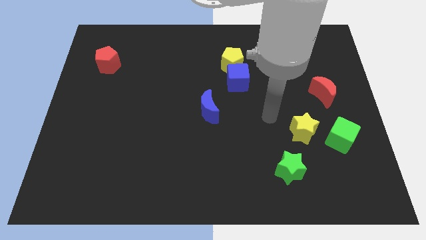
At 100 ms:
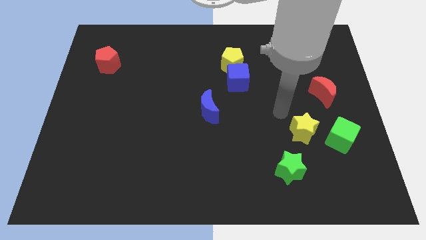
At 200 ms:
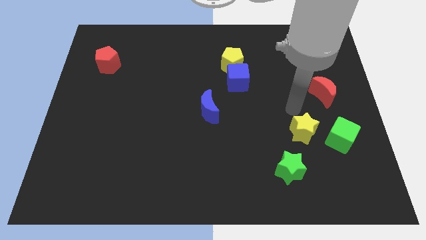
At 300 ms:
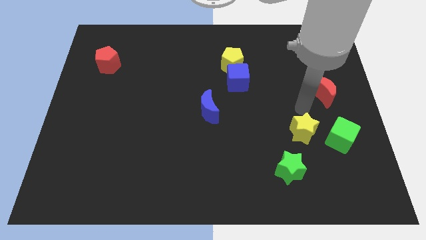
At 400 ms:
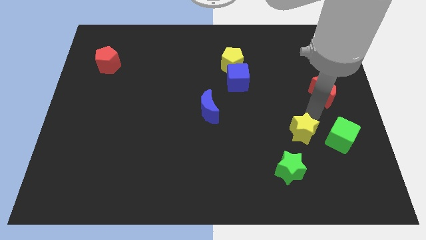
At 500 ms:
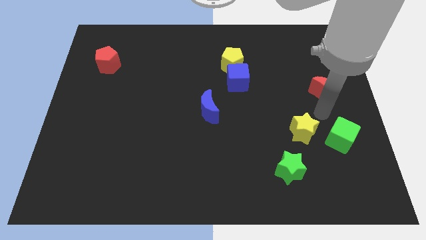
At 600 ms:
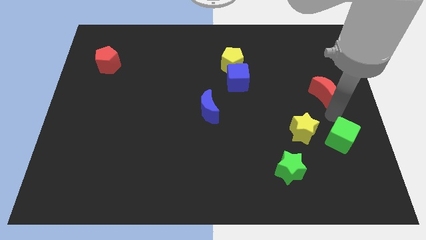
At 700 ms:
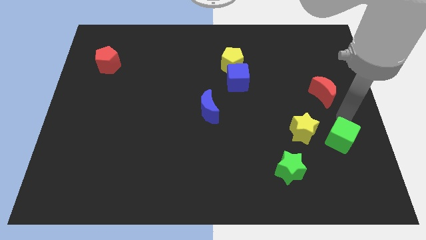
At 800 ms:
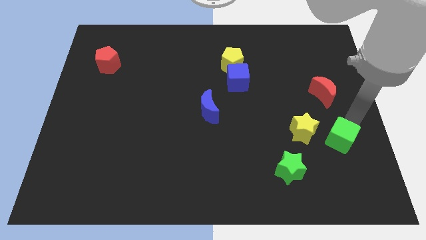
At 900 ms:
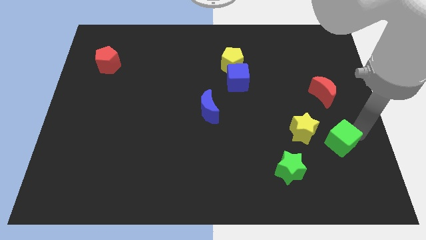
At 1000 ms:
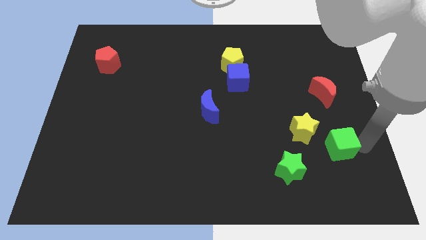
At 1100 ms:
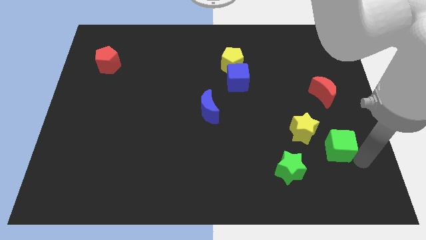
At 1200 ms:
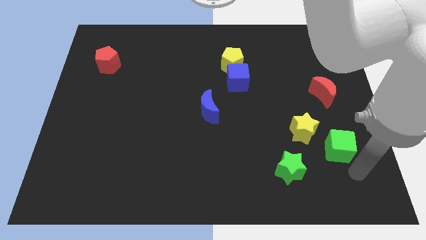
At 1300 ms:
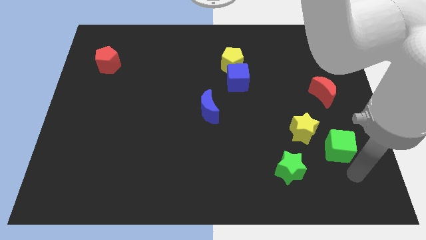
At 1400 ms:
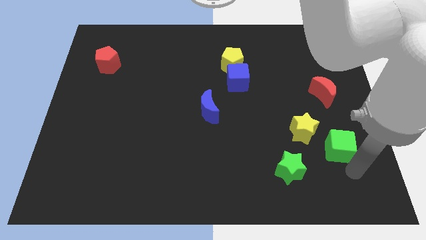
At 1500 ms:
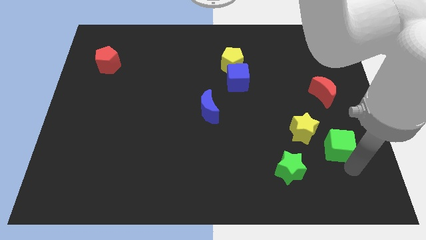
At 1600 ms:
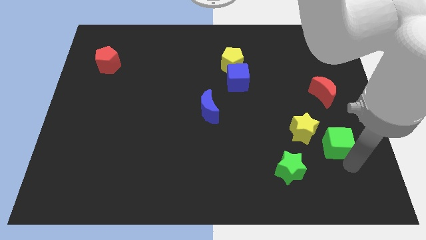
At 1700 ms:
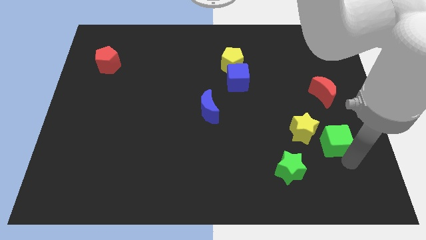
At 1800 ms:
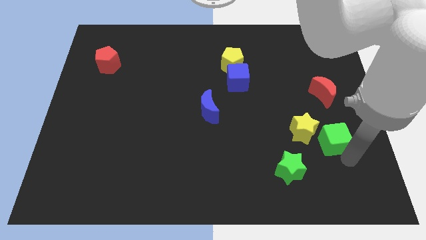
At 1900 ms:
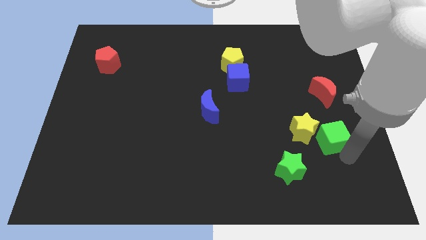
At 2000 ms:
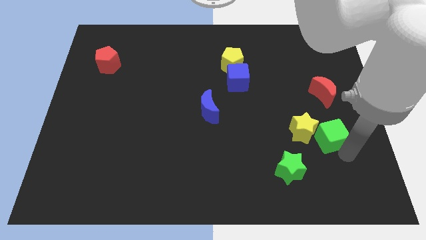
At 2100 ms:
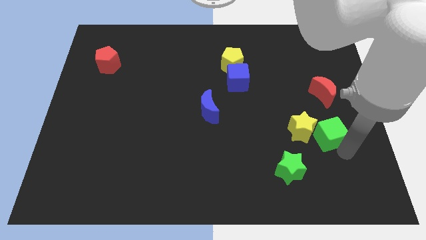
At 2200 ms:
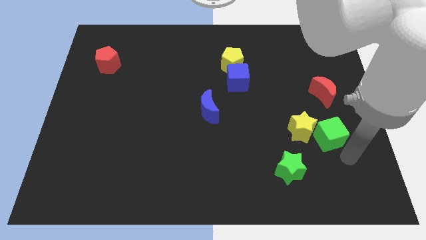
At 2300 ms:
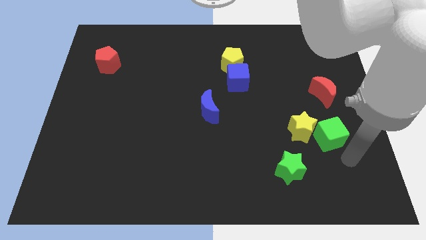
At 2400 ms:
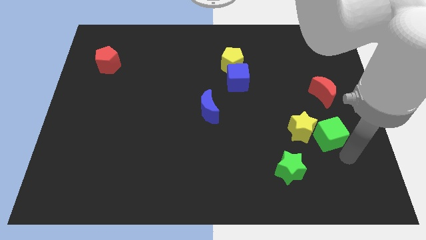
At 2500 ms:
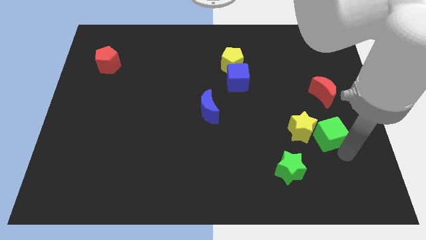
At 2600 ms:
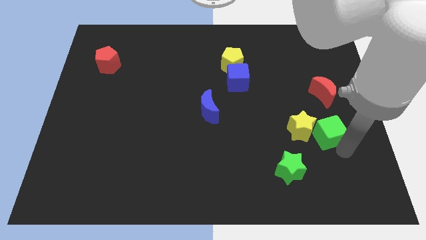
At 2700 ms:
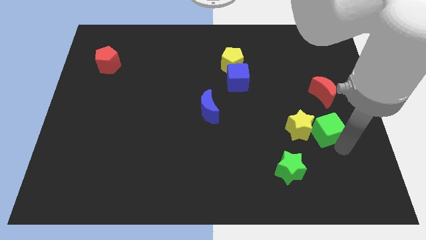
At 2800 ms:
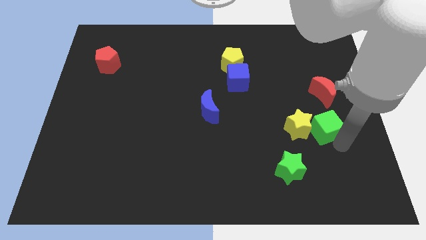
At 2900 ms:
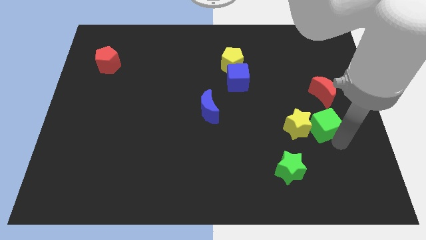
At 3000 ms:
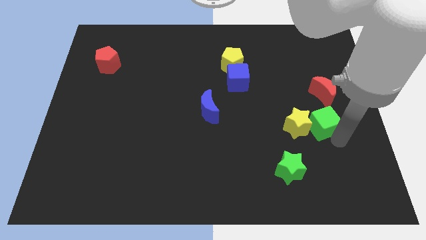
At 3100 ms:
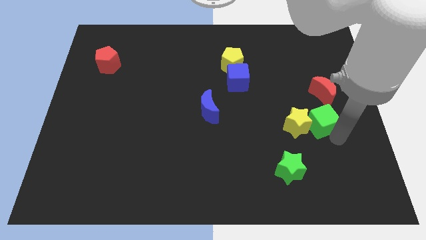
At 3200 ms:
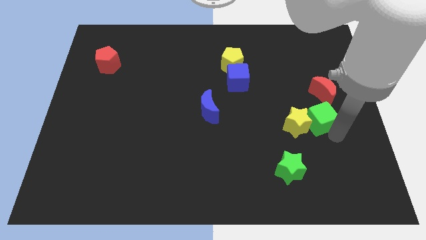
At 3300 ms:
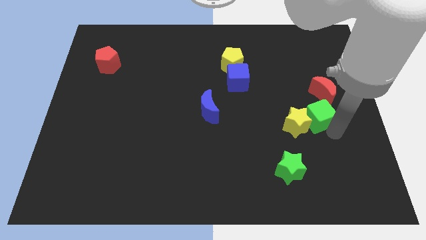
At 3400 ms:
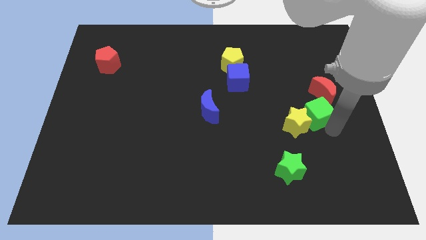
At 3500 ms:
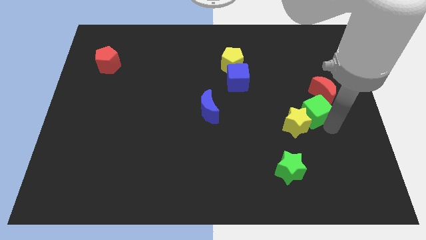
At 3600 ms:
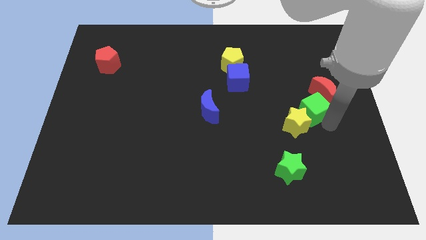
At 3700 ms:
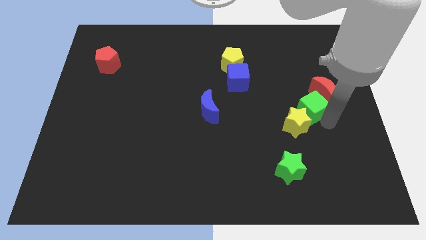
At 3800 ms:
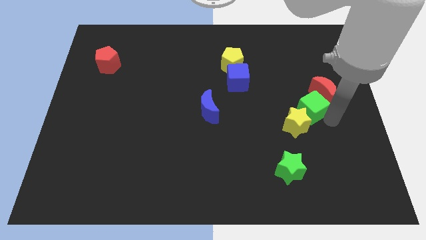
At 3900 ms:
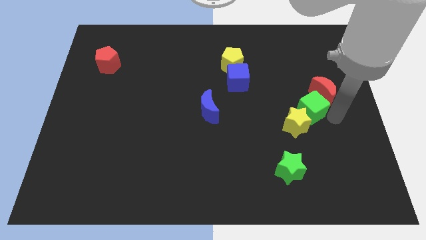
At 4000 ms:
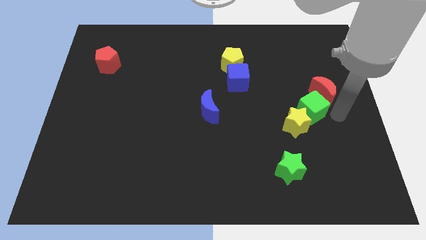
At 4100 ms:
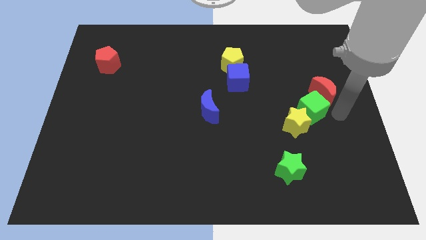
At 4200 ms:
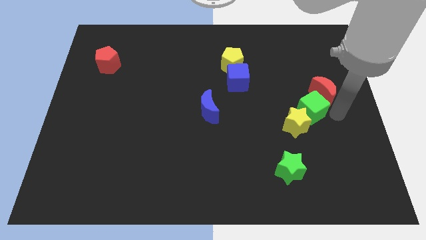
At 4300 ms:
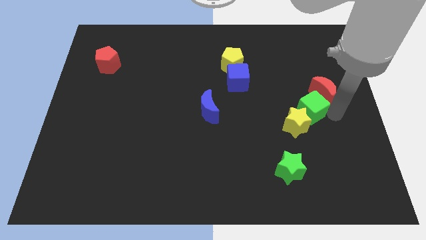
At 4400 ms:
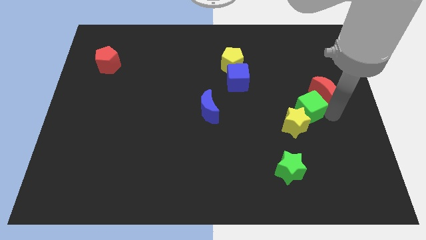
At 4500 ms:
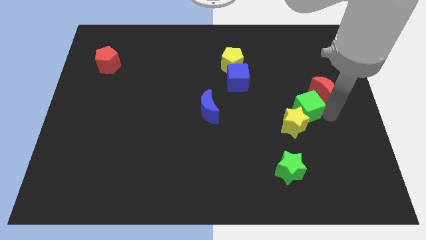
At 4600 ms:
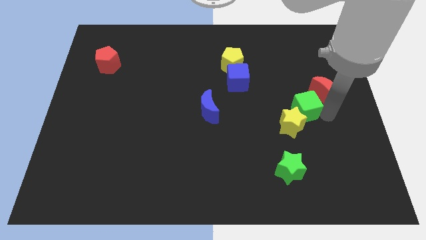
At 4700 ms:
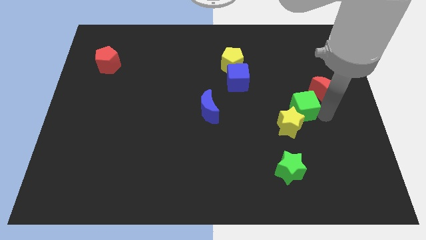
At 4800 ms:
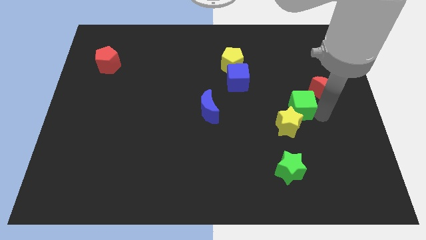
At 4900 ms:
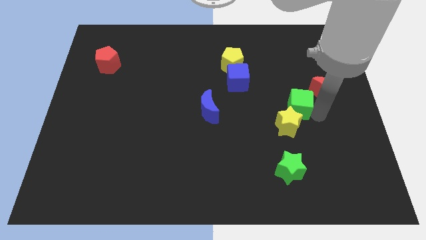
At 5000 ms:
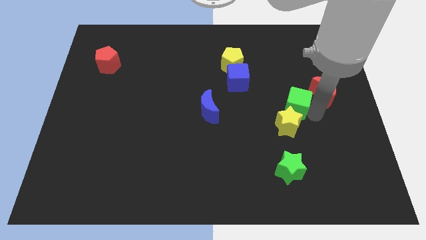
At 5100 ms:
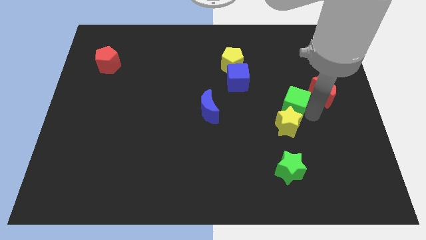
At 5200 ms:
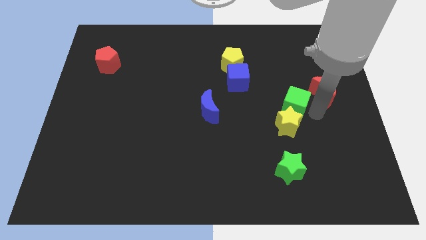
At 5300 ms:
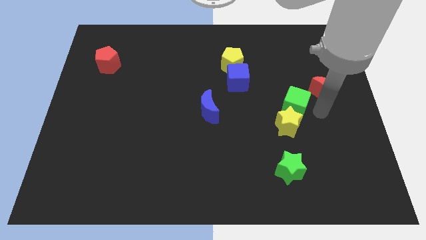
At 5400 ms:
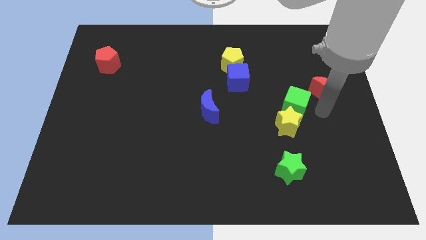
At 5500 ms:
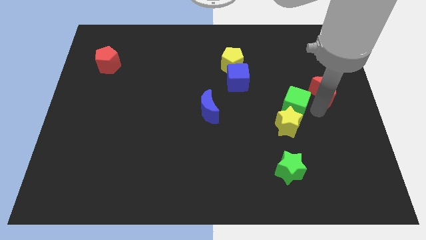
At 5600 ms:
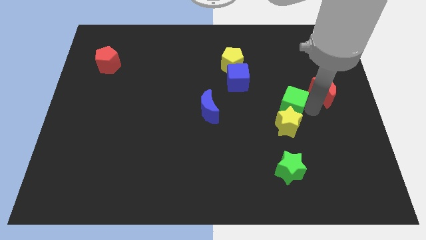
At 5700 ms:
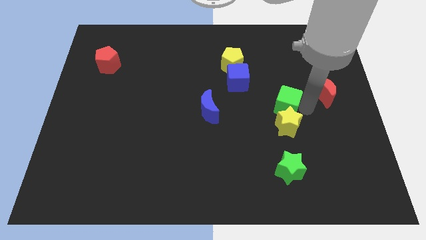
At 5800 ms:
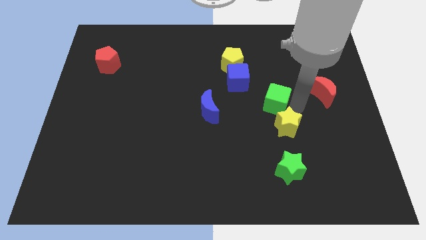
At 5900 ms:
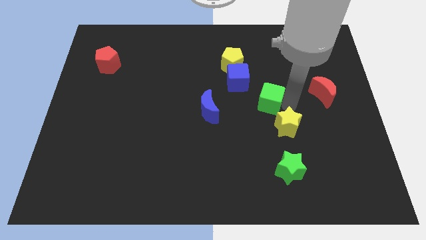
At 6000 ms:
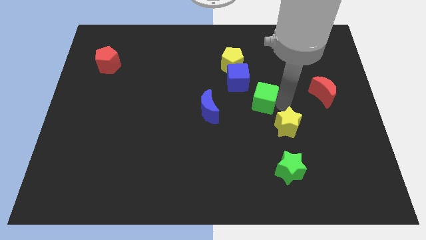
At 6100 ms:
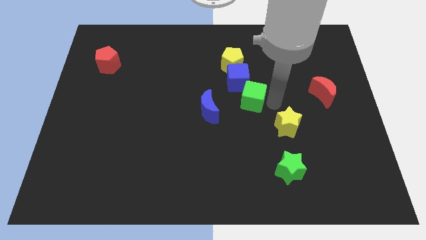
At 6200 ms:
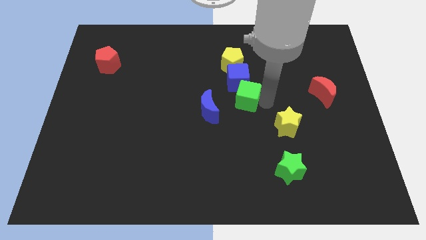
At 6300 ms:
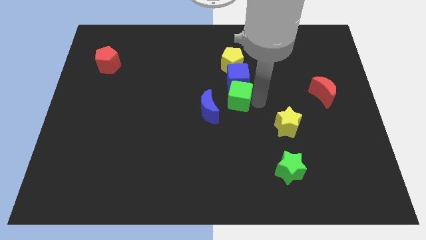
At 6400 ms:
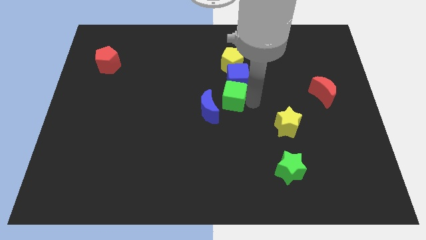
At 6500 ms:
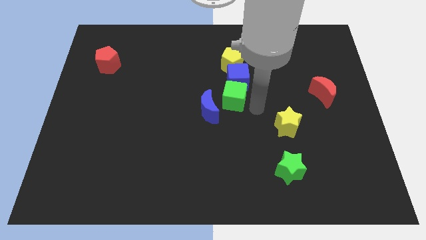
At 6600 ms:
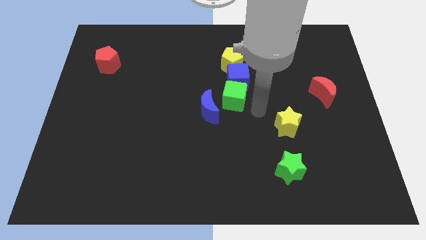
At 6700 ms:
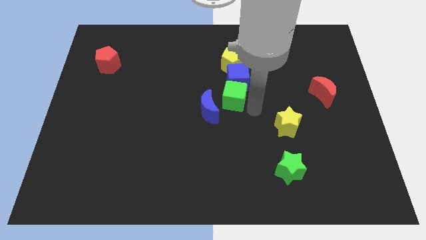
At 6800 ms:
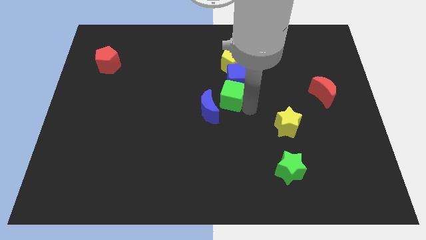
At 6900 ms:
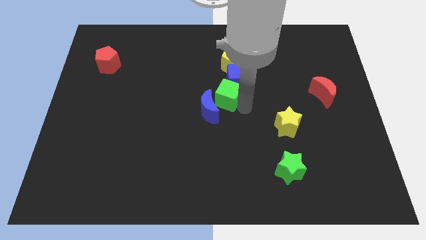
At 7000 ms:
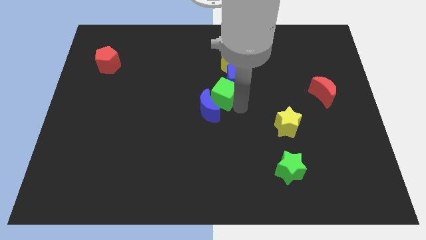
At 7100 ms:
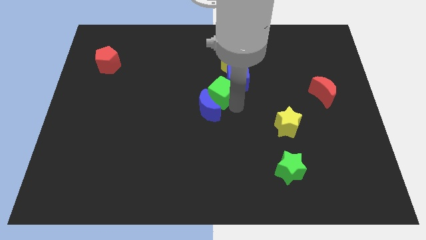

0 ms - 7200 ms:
slide the green cube to the left of the blue cube

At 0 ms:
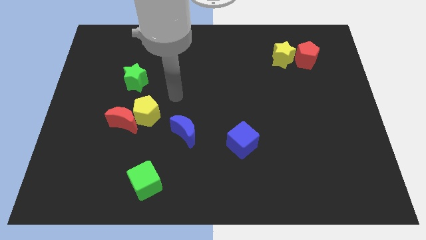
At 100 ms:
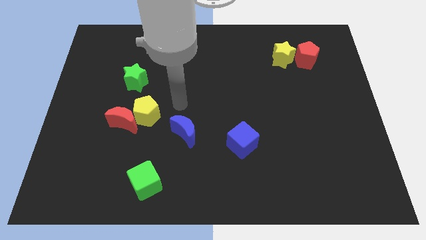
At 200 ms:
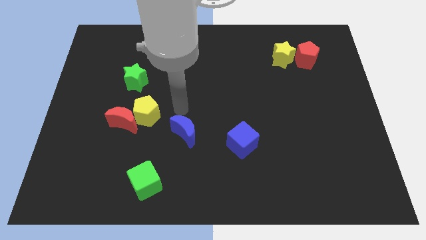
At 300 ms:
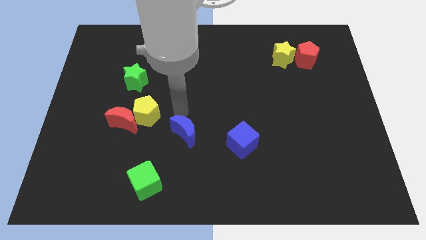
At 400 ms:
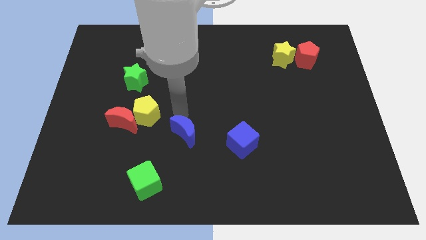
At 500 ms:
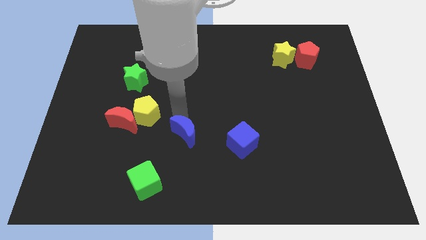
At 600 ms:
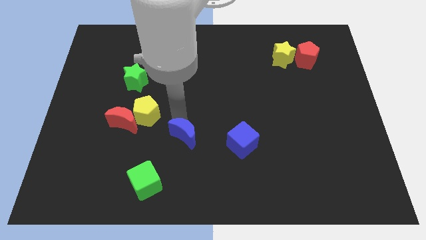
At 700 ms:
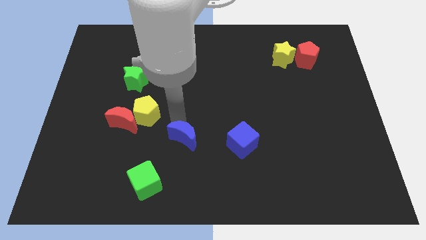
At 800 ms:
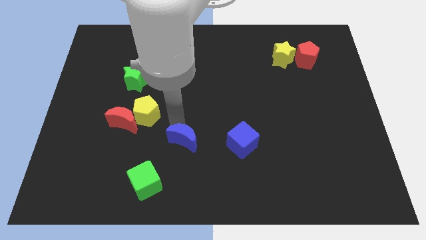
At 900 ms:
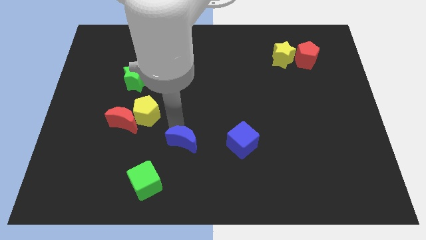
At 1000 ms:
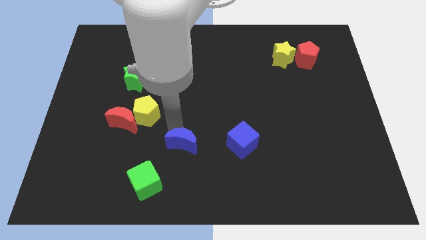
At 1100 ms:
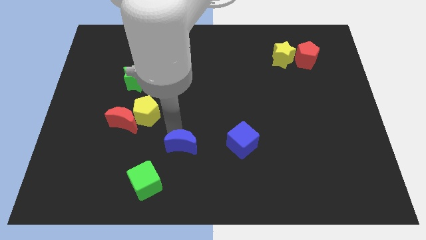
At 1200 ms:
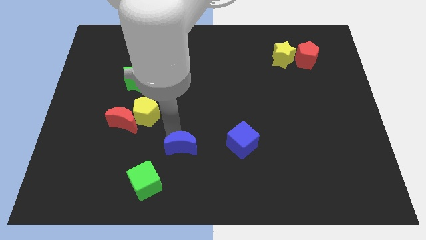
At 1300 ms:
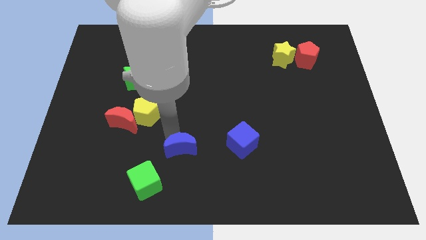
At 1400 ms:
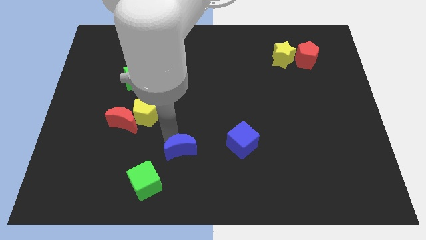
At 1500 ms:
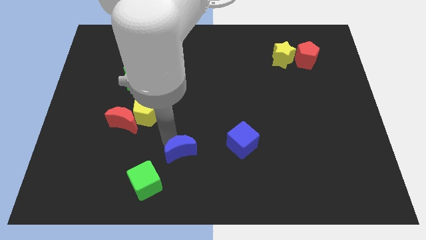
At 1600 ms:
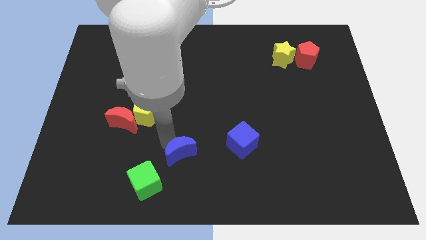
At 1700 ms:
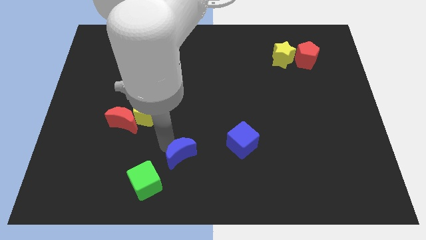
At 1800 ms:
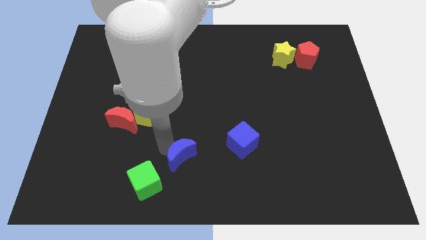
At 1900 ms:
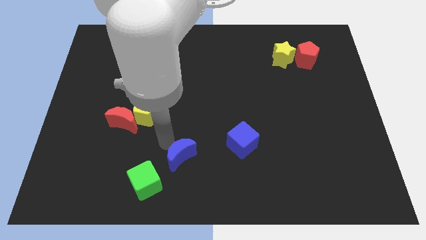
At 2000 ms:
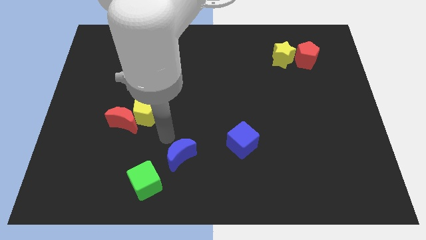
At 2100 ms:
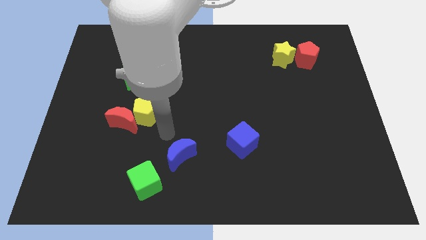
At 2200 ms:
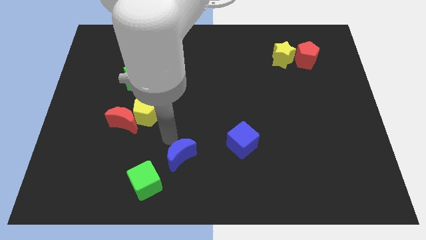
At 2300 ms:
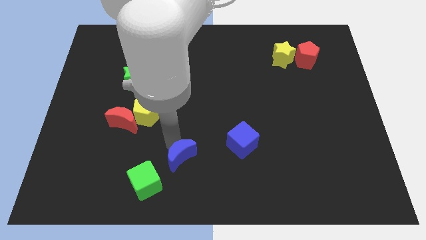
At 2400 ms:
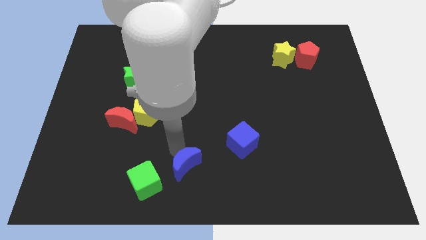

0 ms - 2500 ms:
slide the blue moon right of the green cube
